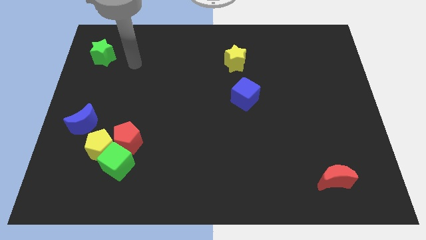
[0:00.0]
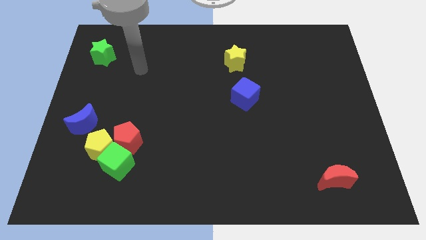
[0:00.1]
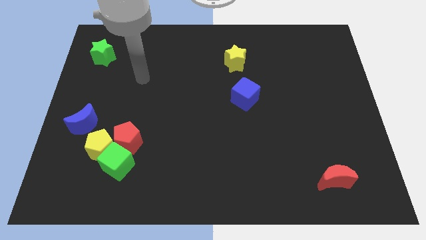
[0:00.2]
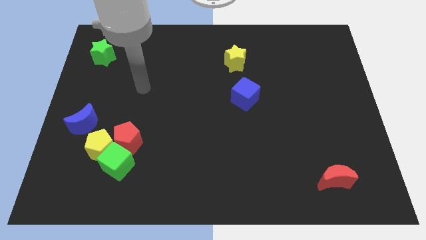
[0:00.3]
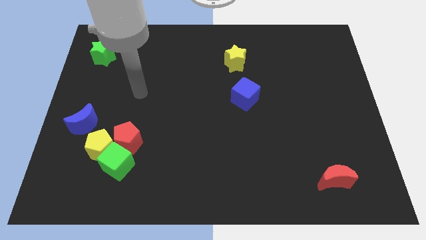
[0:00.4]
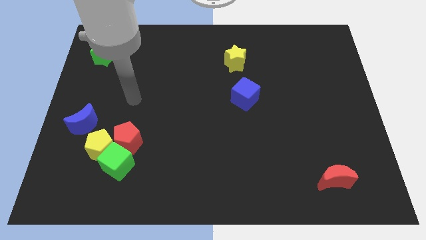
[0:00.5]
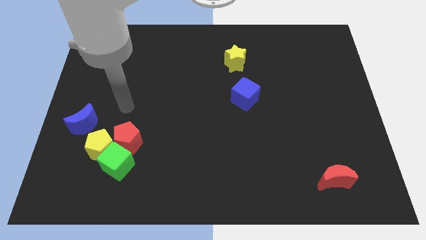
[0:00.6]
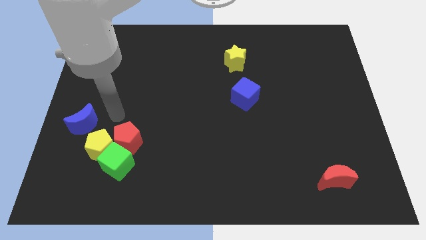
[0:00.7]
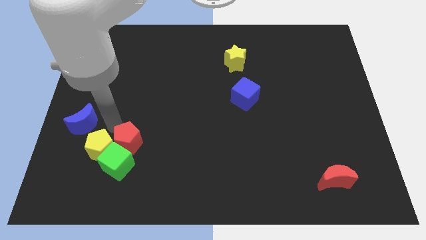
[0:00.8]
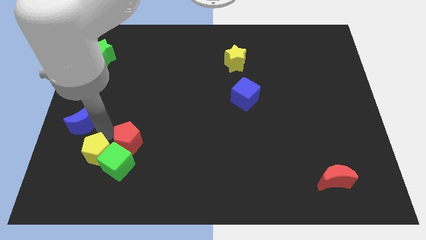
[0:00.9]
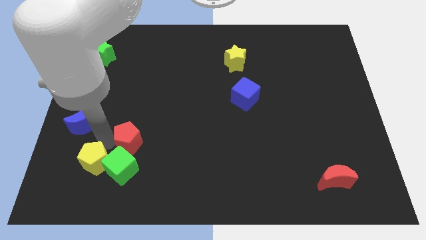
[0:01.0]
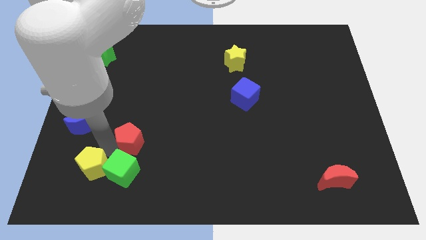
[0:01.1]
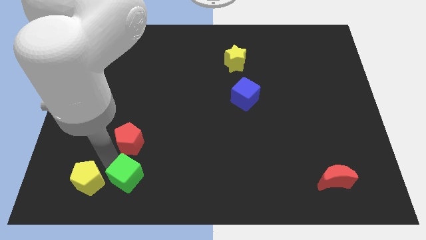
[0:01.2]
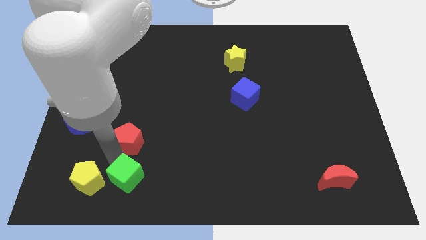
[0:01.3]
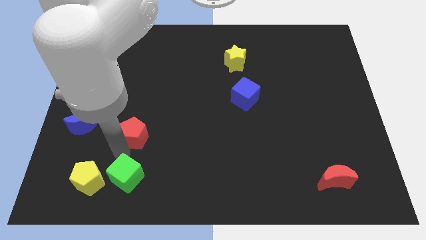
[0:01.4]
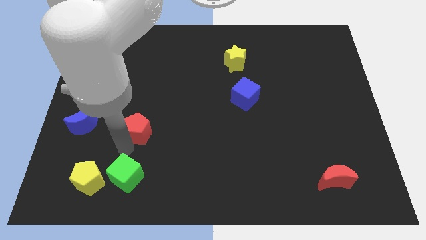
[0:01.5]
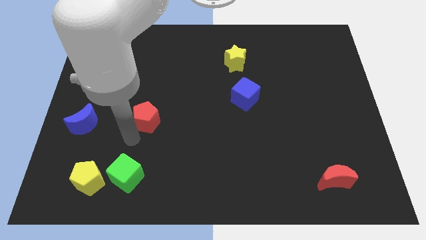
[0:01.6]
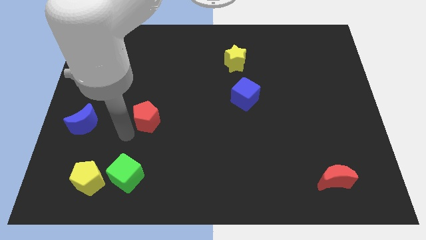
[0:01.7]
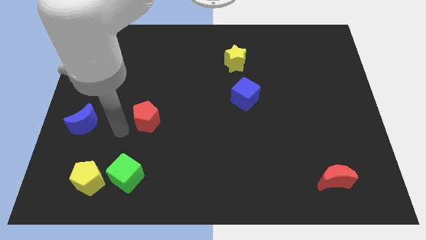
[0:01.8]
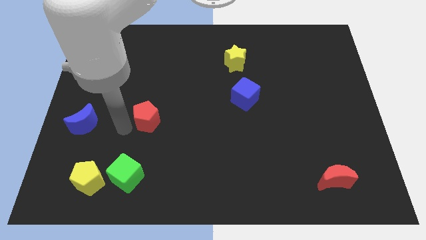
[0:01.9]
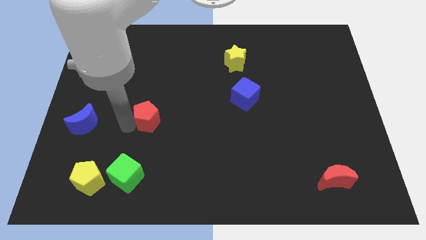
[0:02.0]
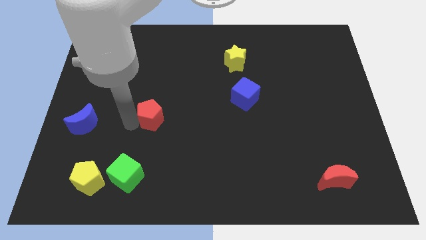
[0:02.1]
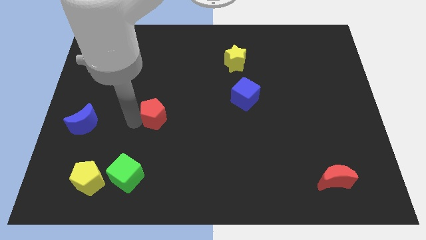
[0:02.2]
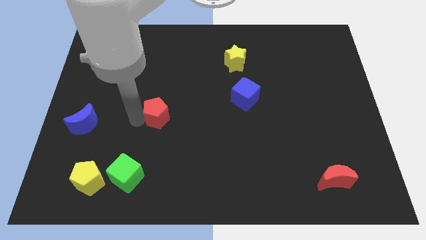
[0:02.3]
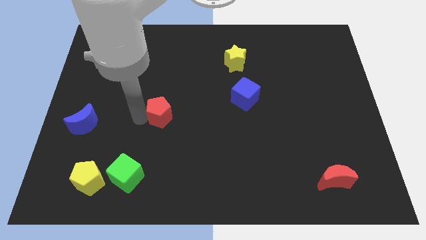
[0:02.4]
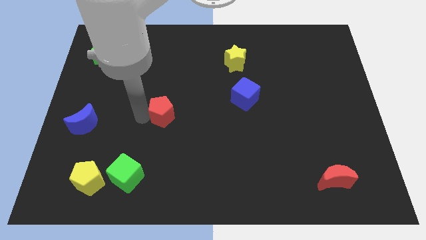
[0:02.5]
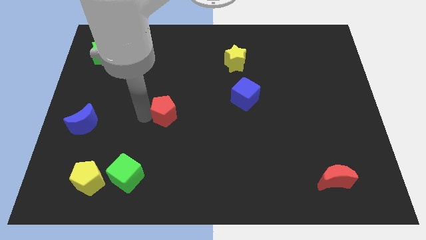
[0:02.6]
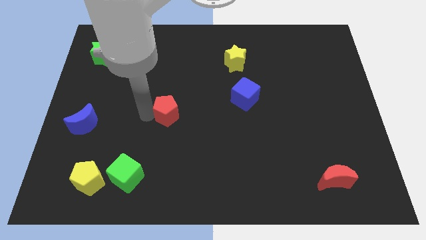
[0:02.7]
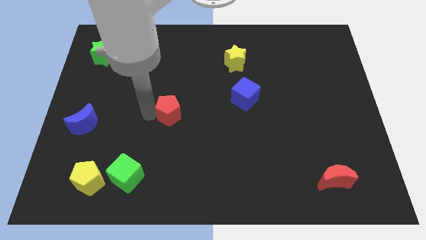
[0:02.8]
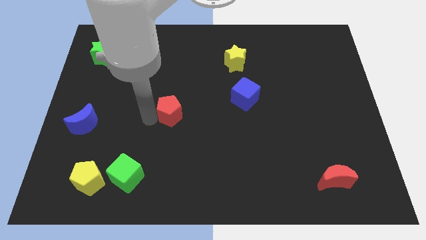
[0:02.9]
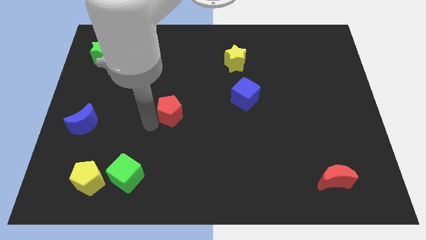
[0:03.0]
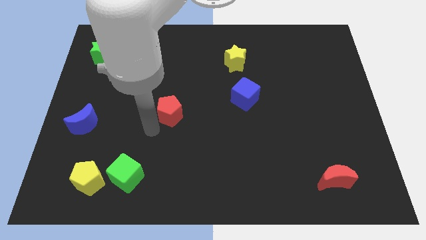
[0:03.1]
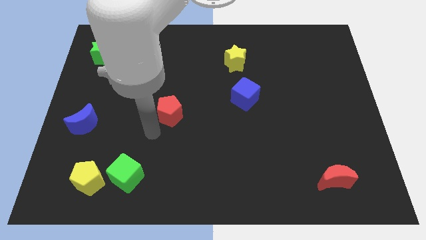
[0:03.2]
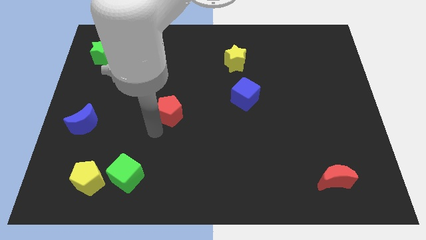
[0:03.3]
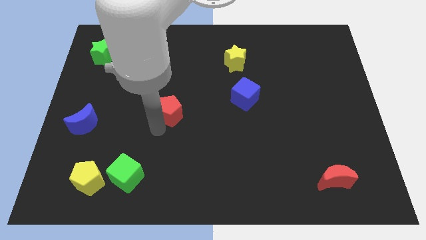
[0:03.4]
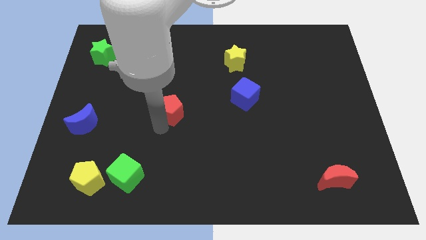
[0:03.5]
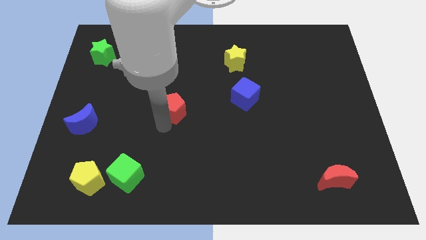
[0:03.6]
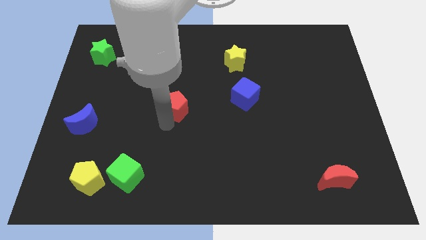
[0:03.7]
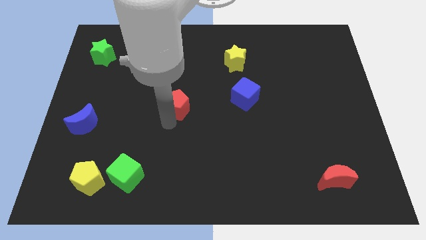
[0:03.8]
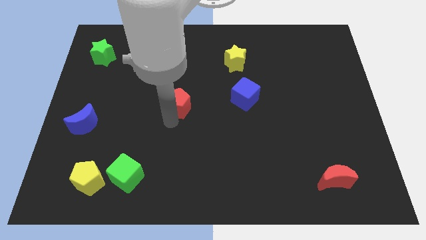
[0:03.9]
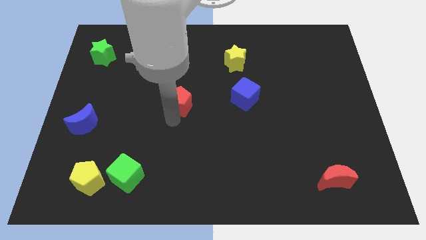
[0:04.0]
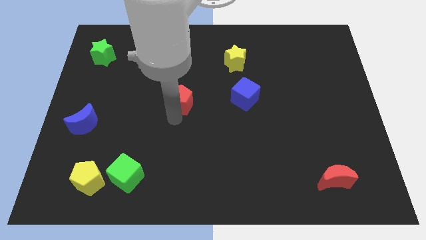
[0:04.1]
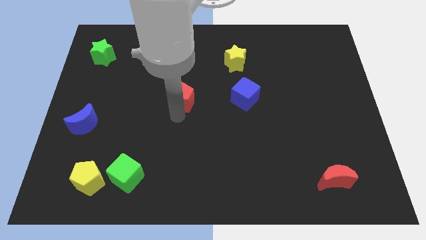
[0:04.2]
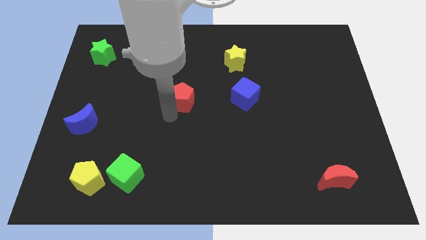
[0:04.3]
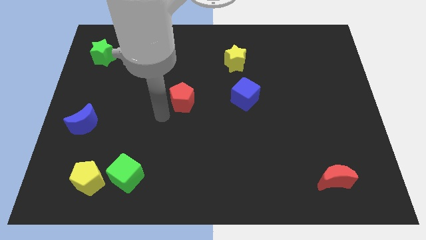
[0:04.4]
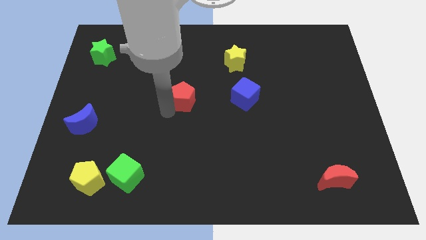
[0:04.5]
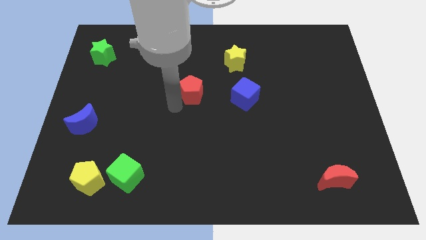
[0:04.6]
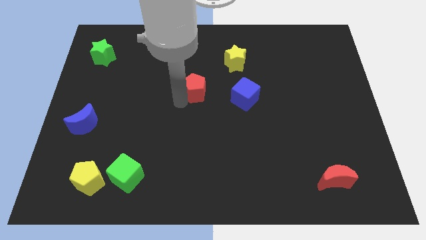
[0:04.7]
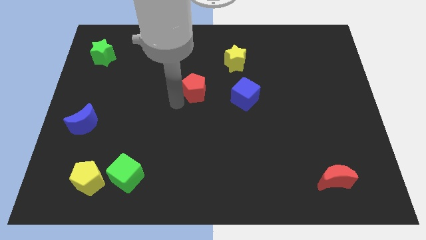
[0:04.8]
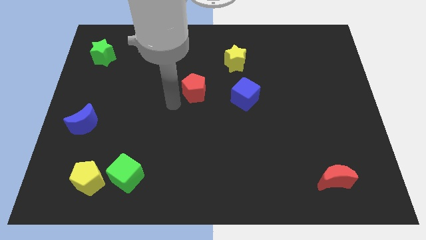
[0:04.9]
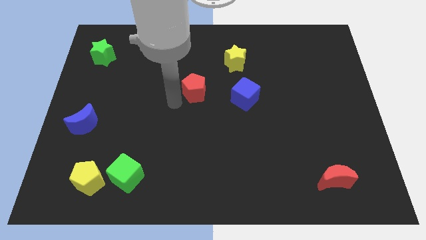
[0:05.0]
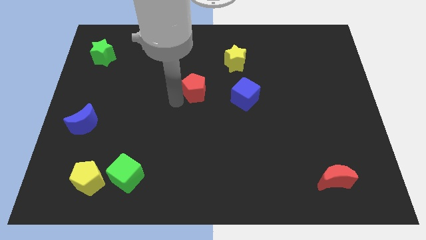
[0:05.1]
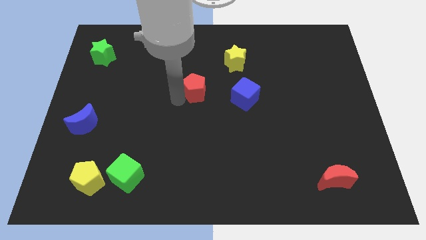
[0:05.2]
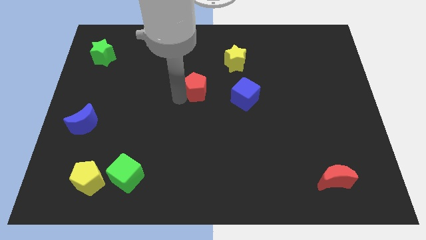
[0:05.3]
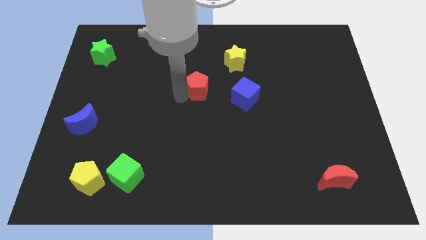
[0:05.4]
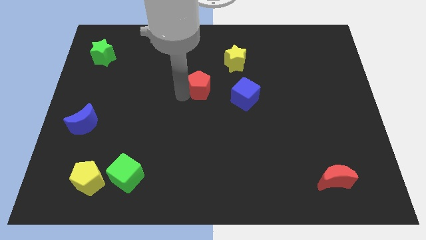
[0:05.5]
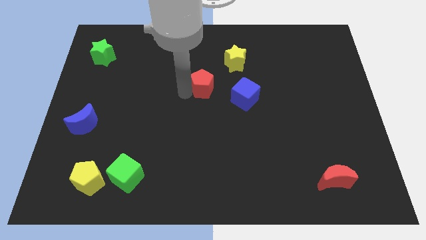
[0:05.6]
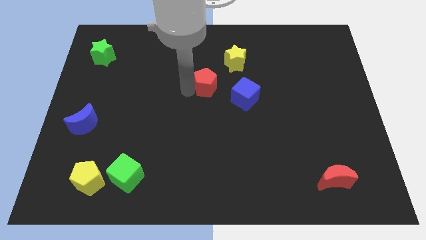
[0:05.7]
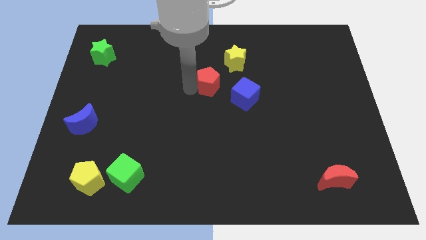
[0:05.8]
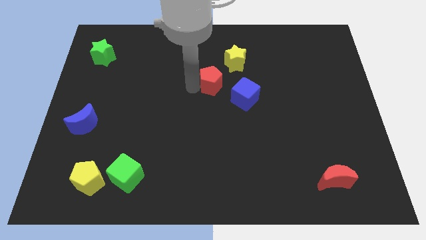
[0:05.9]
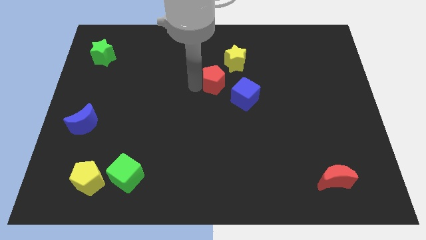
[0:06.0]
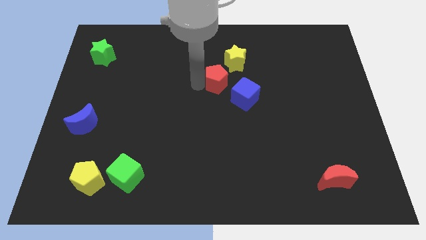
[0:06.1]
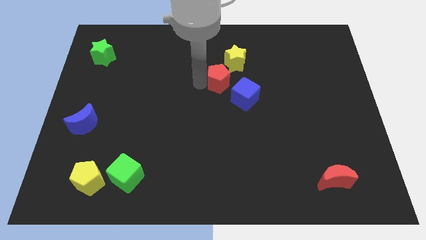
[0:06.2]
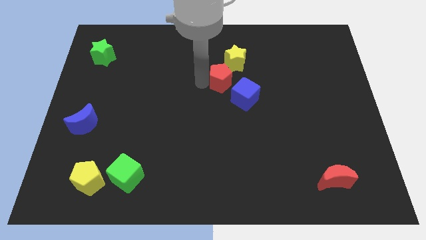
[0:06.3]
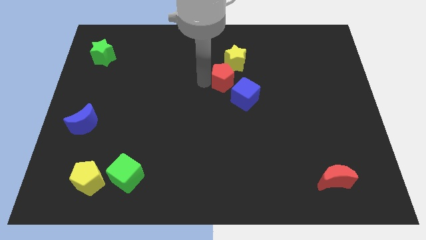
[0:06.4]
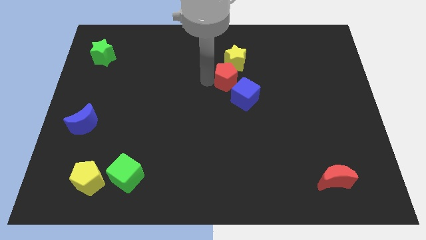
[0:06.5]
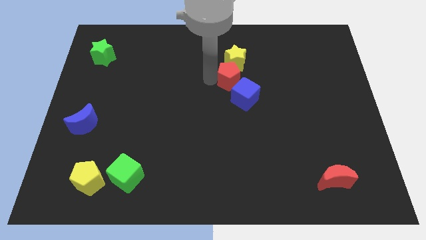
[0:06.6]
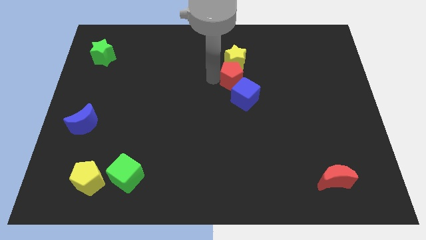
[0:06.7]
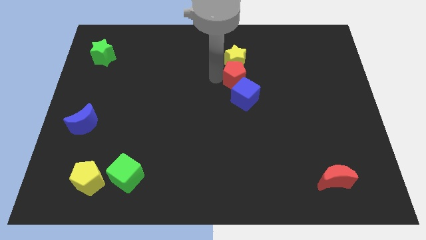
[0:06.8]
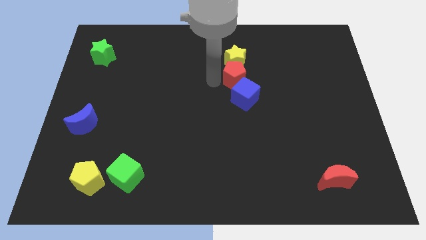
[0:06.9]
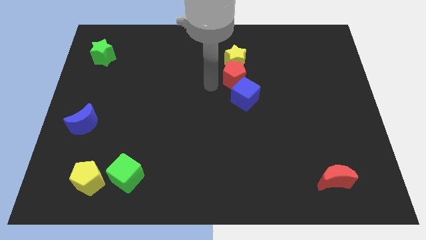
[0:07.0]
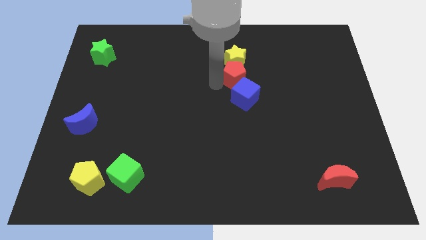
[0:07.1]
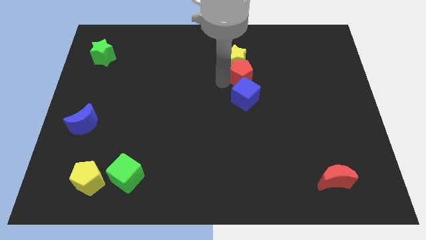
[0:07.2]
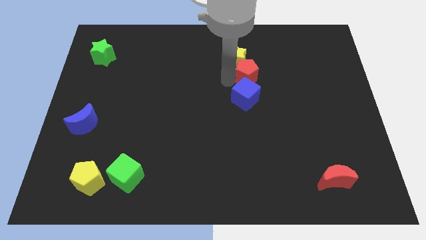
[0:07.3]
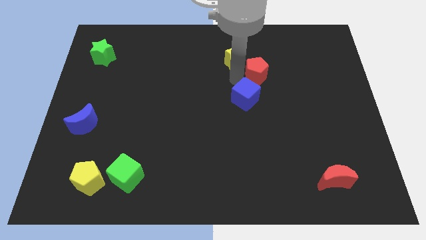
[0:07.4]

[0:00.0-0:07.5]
slide the red pentagon to the right of the yellow star
